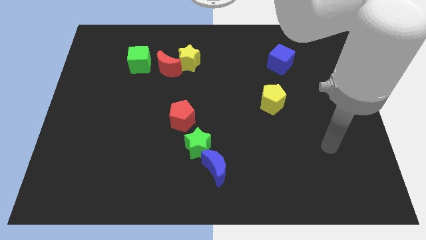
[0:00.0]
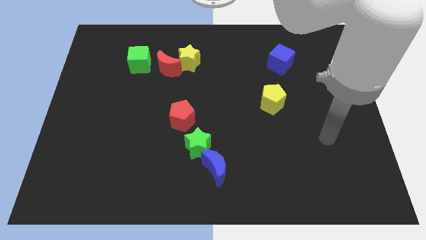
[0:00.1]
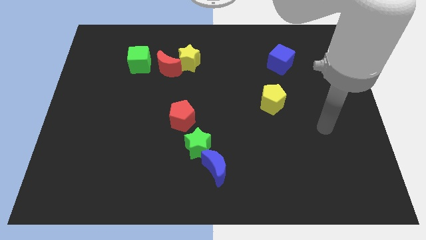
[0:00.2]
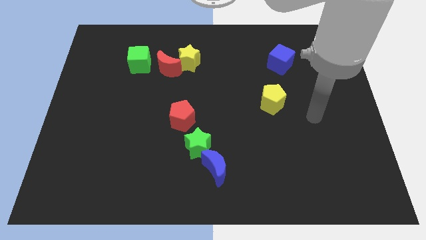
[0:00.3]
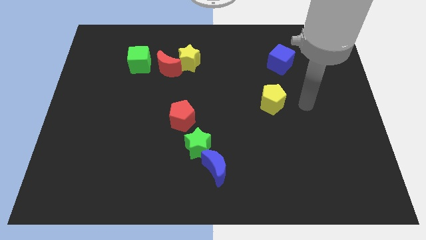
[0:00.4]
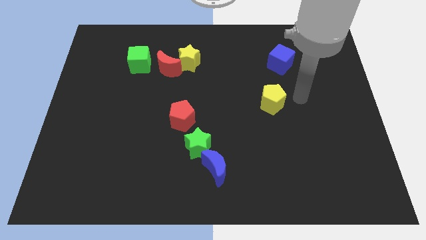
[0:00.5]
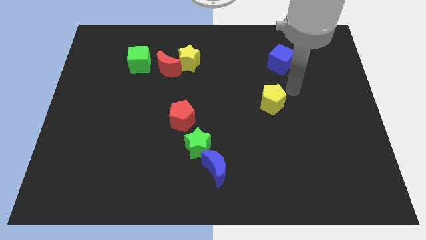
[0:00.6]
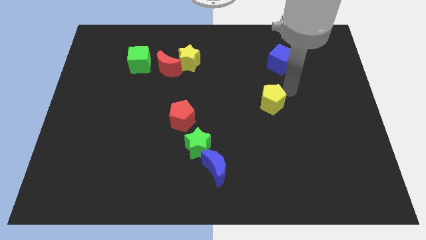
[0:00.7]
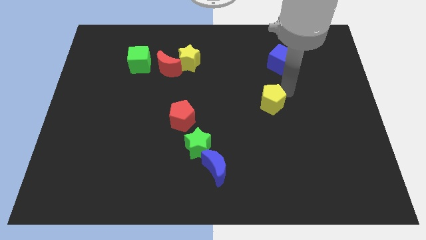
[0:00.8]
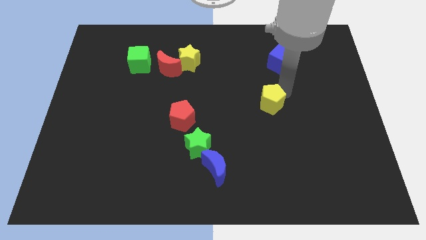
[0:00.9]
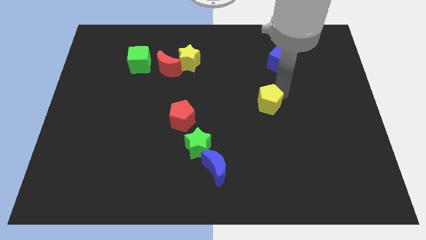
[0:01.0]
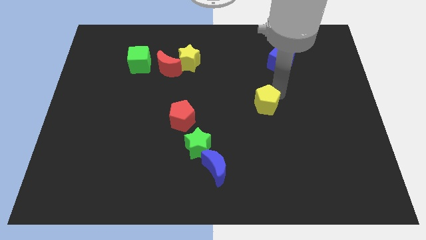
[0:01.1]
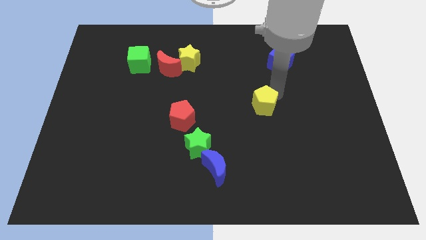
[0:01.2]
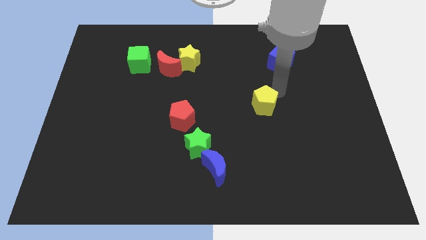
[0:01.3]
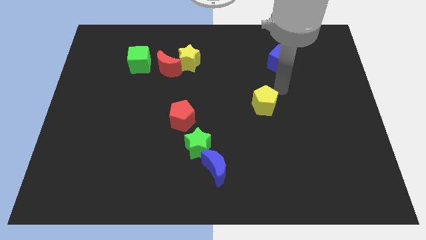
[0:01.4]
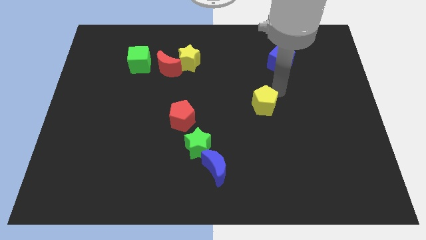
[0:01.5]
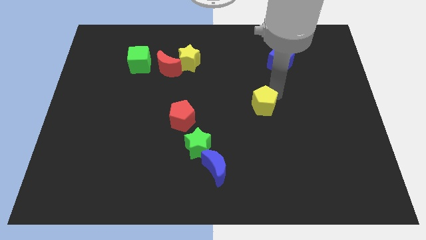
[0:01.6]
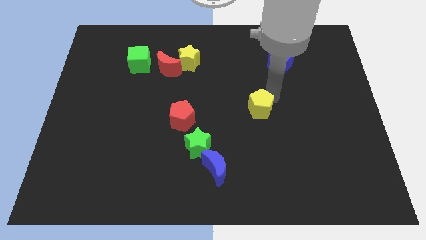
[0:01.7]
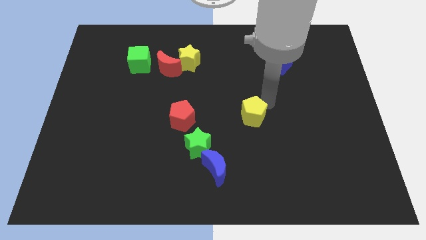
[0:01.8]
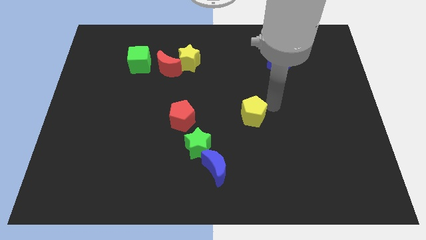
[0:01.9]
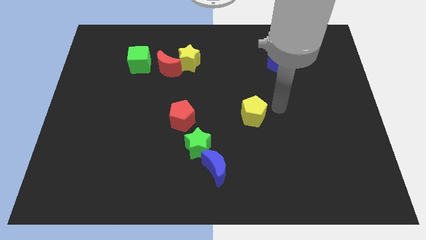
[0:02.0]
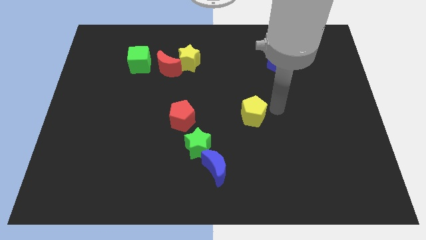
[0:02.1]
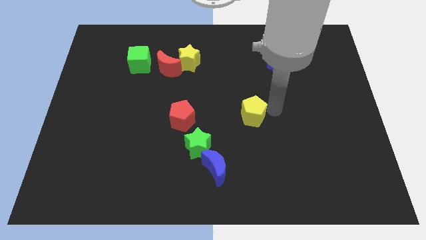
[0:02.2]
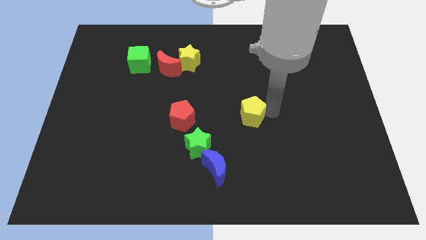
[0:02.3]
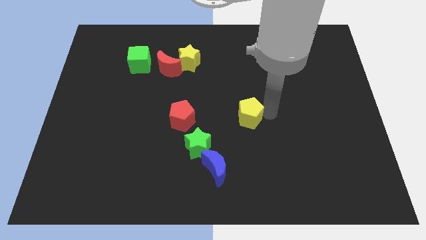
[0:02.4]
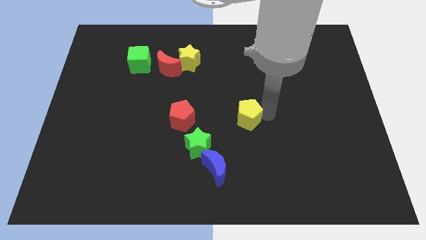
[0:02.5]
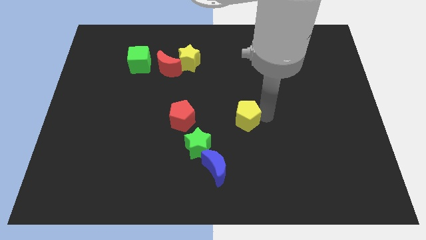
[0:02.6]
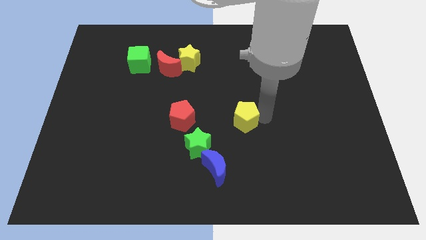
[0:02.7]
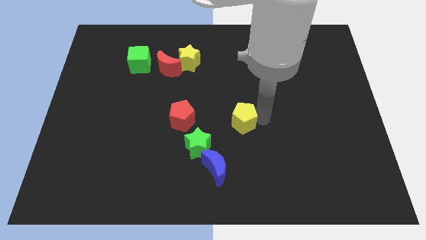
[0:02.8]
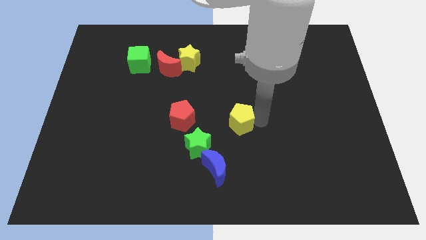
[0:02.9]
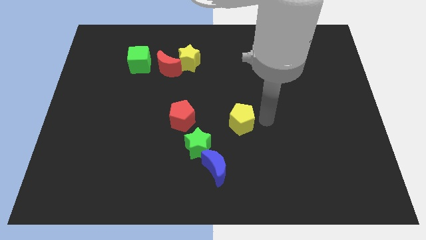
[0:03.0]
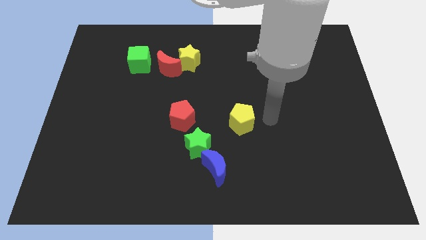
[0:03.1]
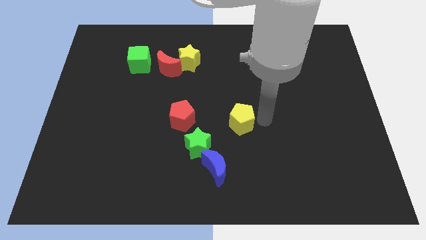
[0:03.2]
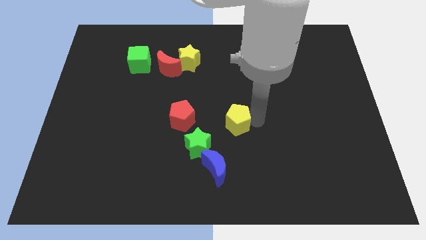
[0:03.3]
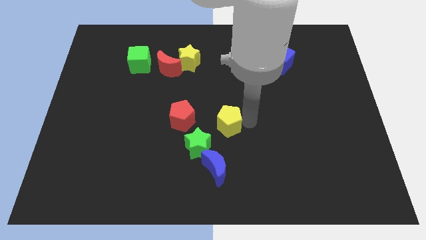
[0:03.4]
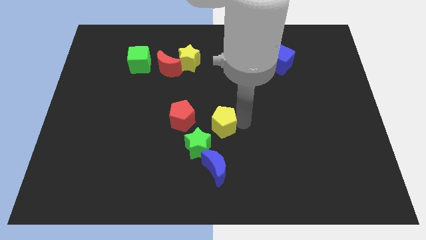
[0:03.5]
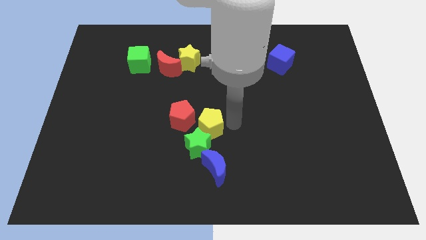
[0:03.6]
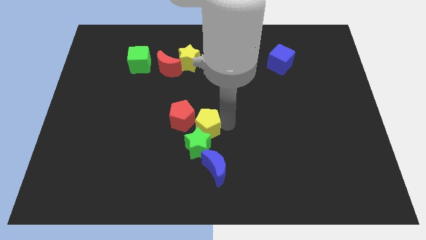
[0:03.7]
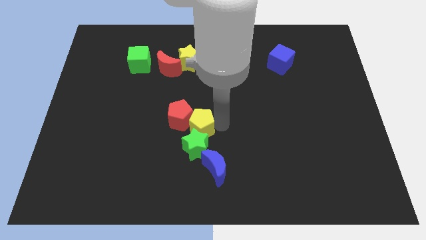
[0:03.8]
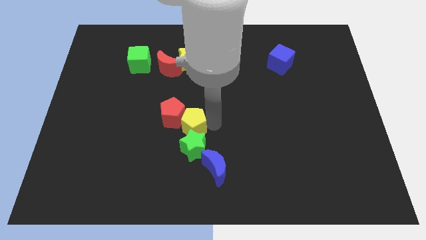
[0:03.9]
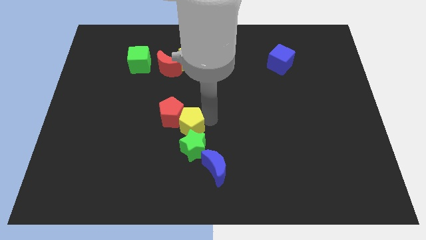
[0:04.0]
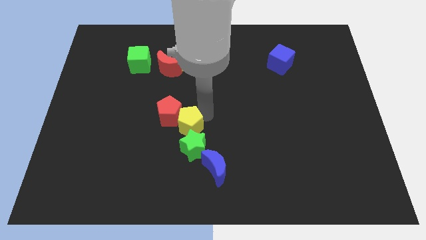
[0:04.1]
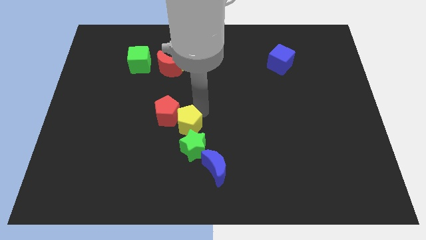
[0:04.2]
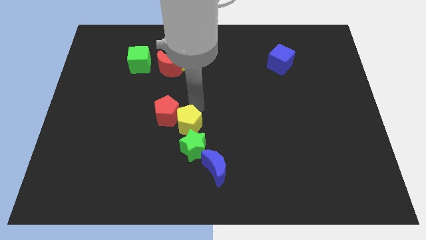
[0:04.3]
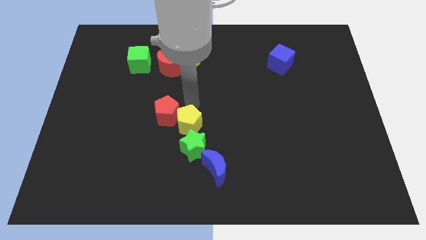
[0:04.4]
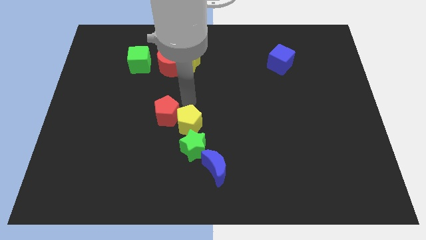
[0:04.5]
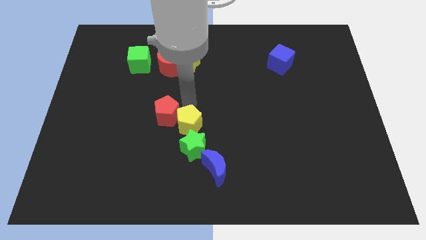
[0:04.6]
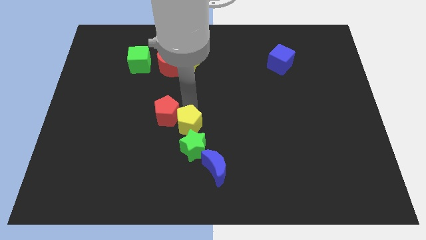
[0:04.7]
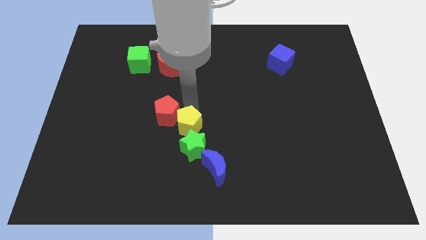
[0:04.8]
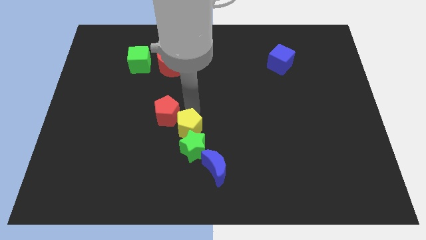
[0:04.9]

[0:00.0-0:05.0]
put the yellow pentagon diagonally up and to the left of the blue moon

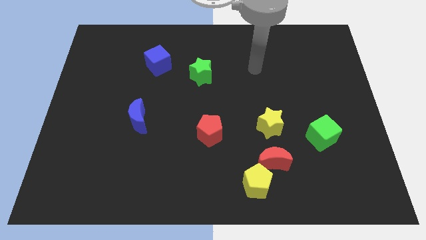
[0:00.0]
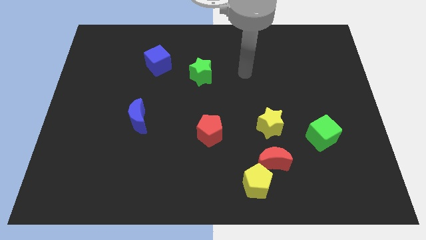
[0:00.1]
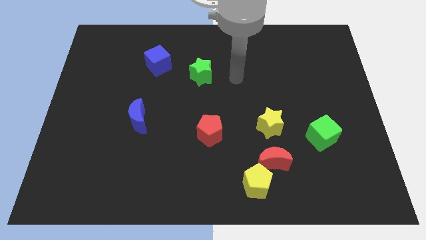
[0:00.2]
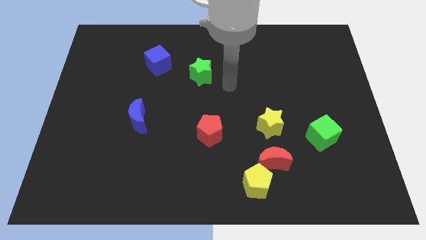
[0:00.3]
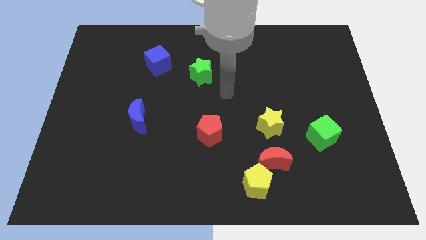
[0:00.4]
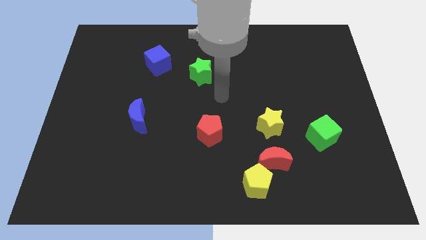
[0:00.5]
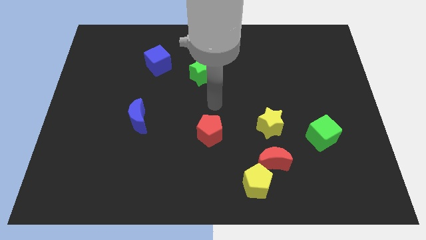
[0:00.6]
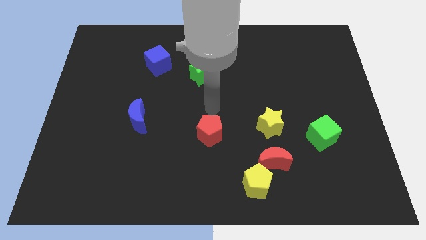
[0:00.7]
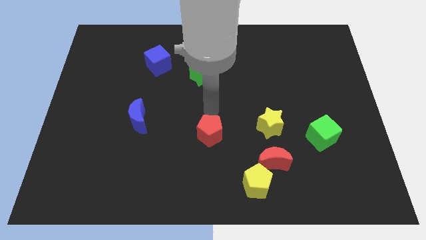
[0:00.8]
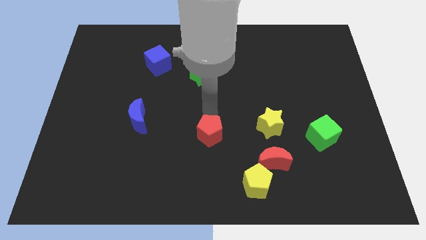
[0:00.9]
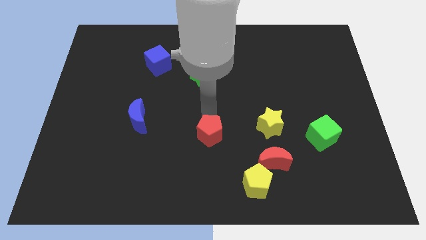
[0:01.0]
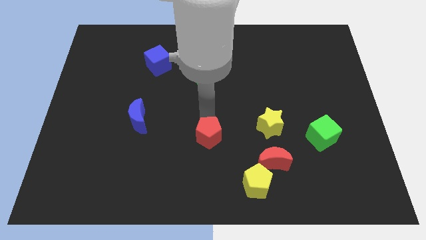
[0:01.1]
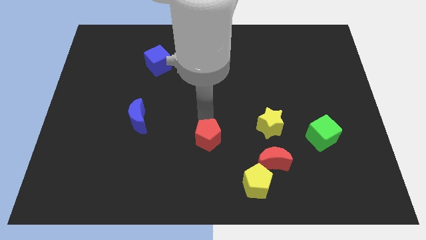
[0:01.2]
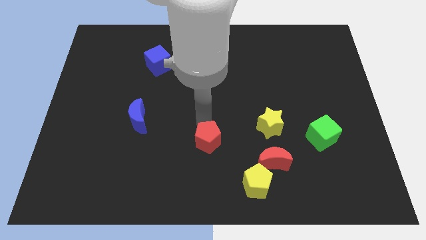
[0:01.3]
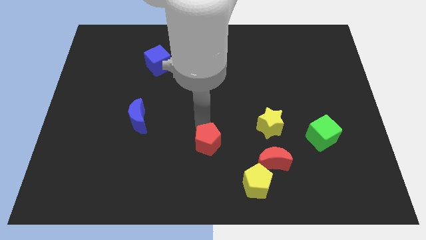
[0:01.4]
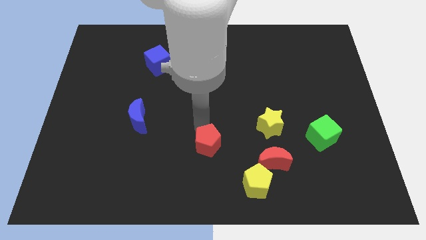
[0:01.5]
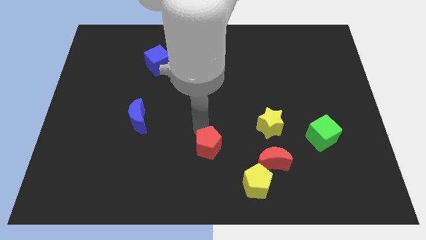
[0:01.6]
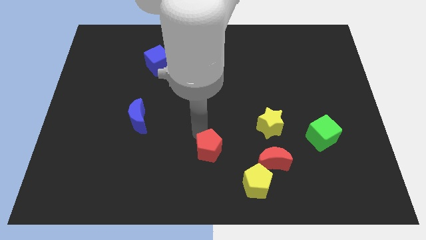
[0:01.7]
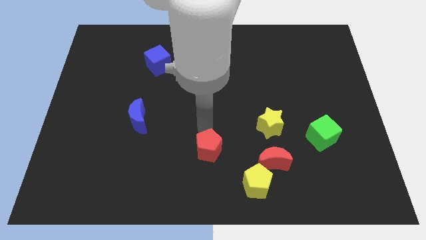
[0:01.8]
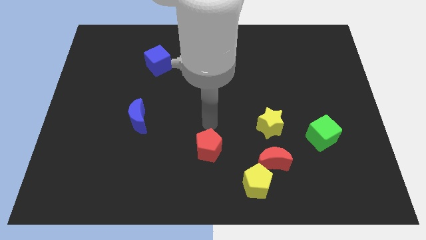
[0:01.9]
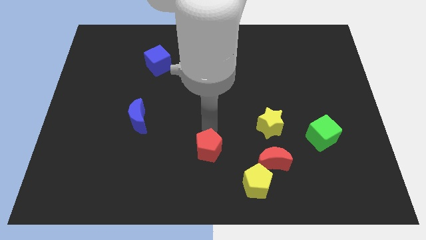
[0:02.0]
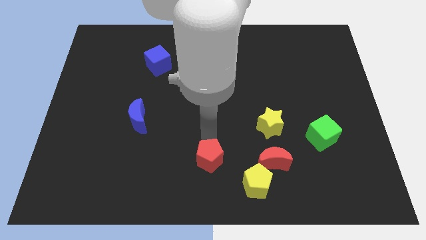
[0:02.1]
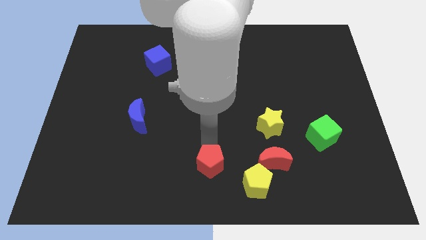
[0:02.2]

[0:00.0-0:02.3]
push the red pentagon to the left side of the yellow pentagon

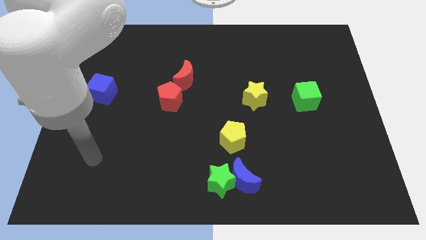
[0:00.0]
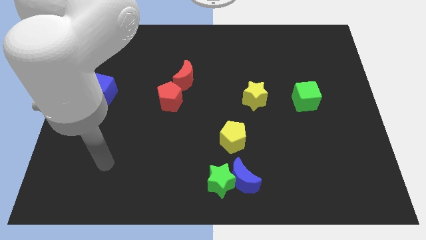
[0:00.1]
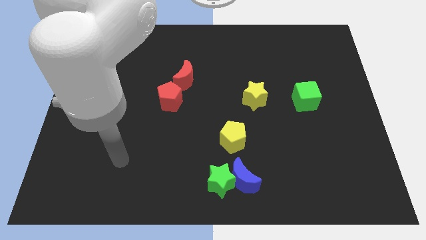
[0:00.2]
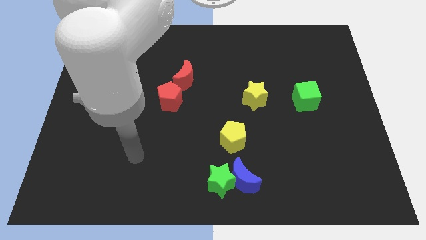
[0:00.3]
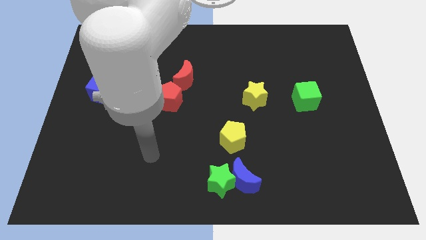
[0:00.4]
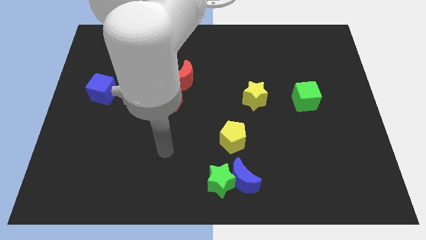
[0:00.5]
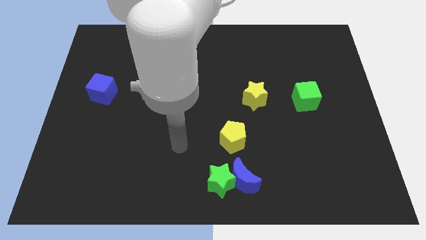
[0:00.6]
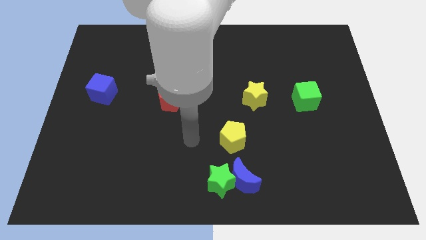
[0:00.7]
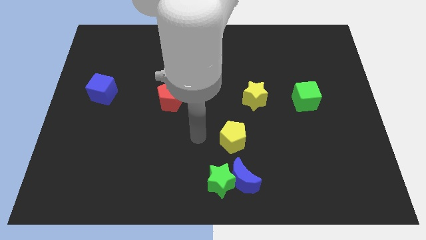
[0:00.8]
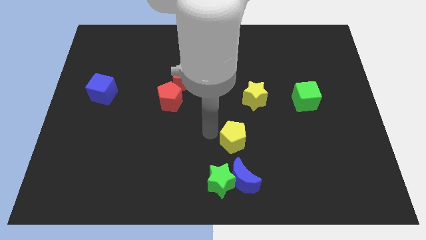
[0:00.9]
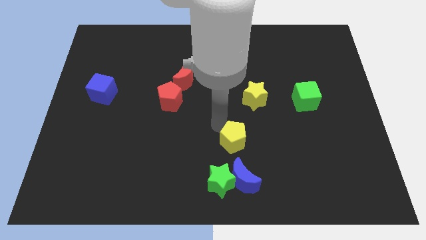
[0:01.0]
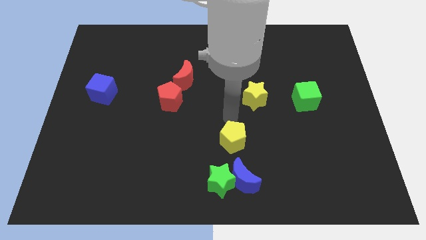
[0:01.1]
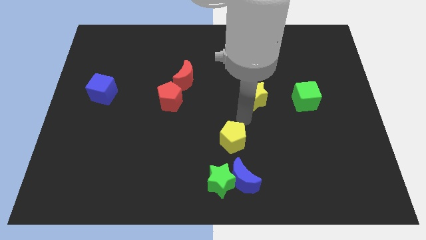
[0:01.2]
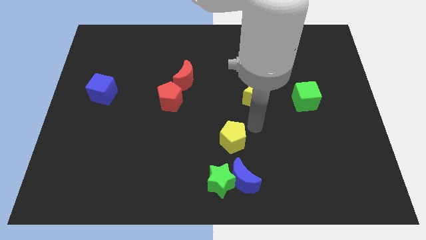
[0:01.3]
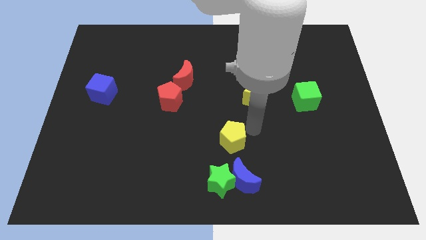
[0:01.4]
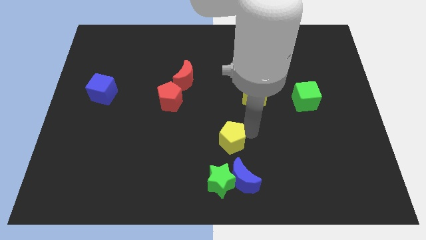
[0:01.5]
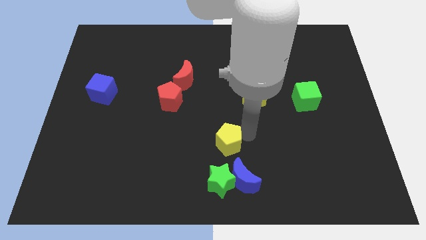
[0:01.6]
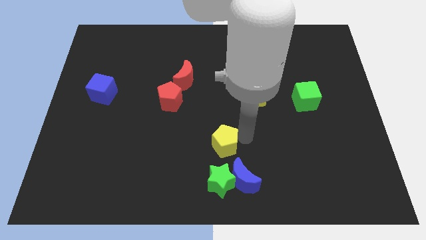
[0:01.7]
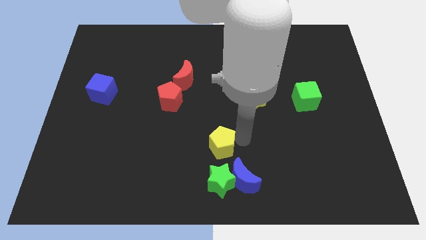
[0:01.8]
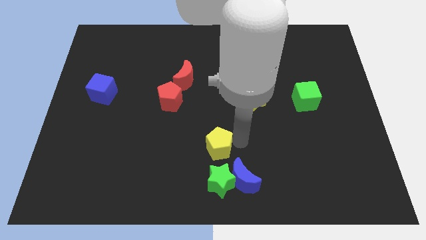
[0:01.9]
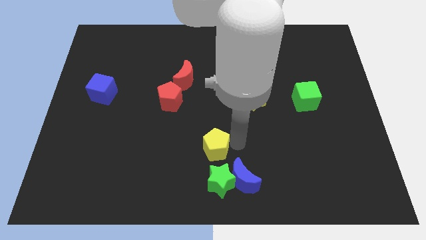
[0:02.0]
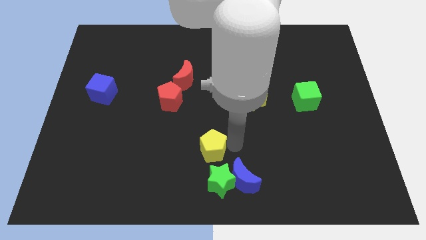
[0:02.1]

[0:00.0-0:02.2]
slide the yellow pentagon diagonally up and to the left of the green star
